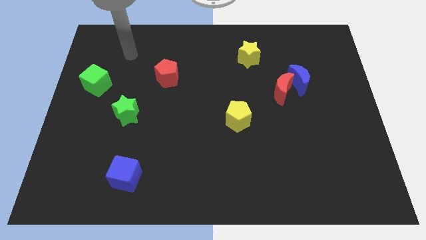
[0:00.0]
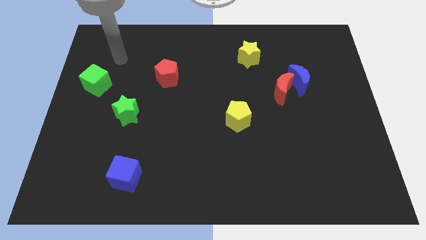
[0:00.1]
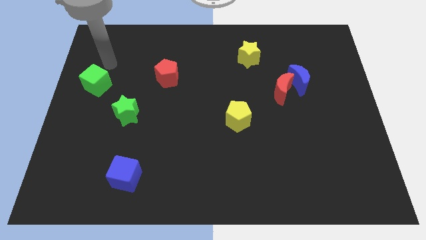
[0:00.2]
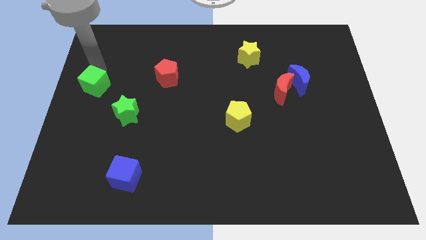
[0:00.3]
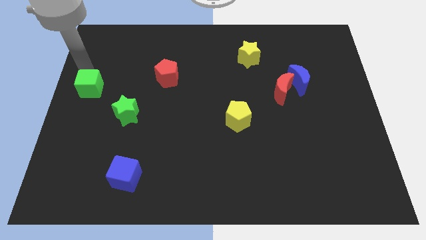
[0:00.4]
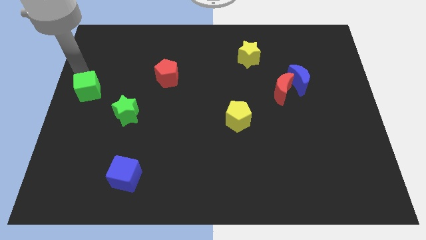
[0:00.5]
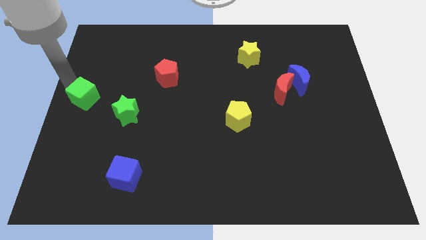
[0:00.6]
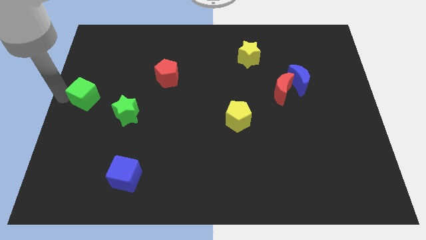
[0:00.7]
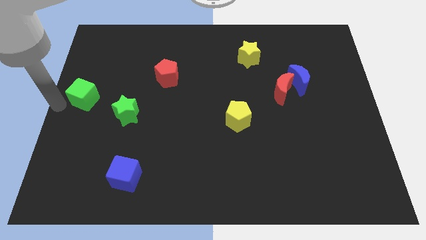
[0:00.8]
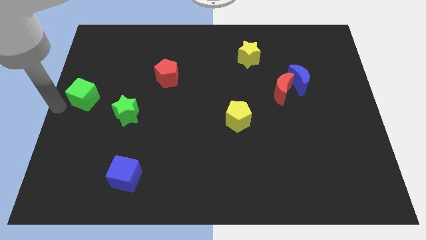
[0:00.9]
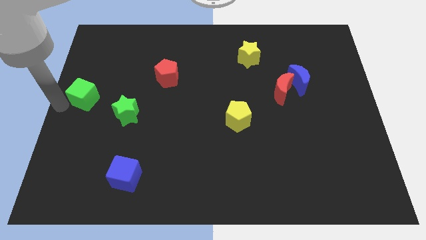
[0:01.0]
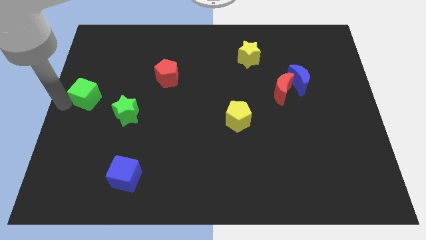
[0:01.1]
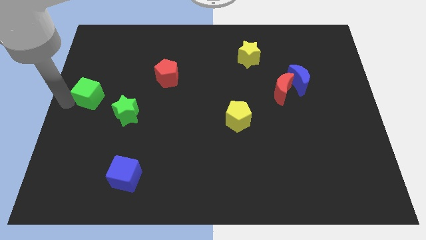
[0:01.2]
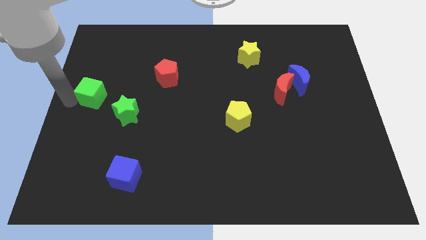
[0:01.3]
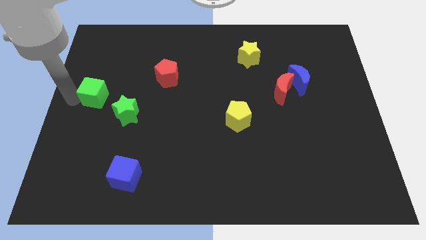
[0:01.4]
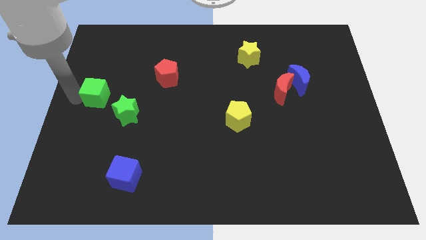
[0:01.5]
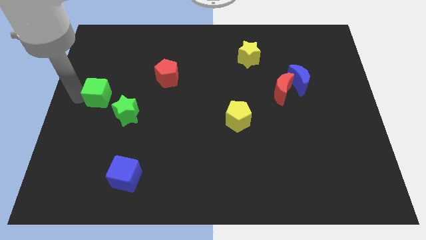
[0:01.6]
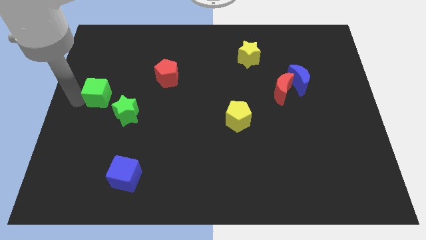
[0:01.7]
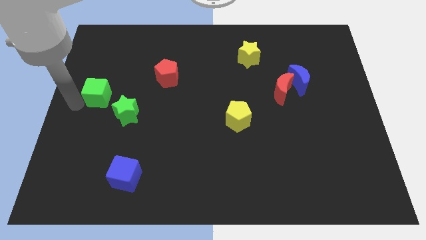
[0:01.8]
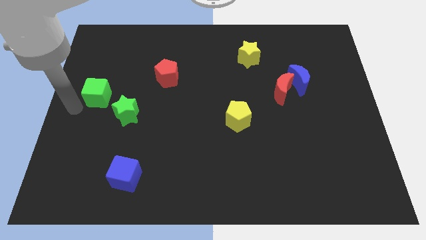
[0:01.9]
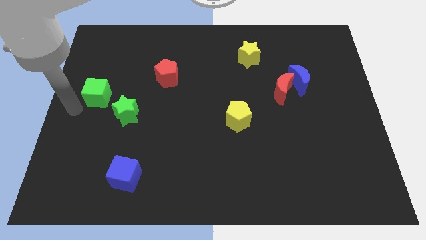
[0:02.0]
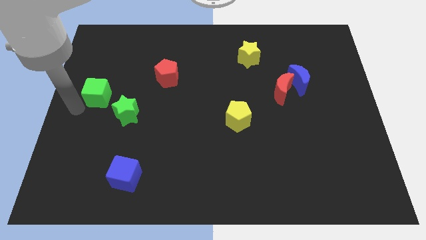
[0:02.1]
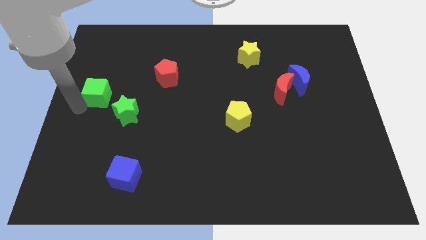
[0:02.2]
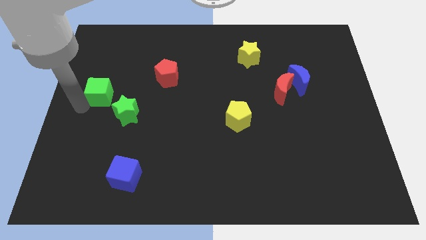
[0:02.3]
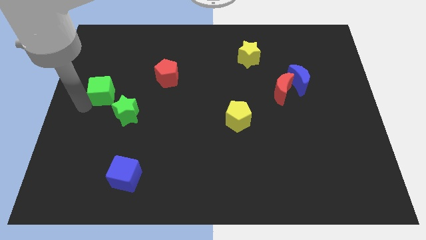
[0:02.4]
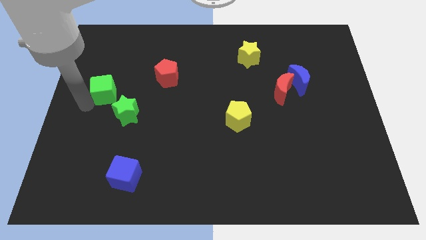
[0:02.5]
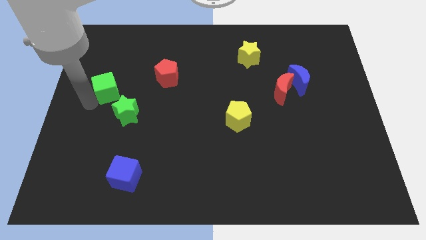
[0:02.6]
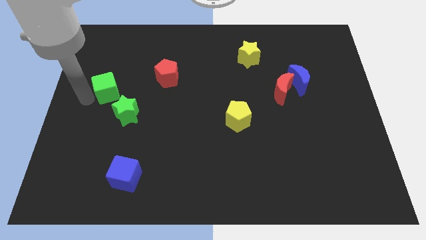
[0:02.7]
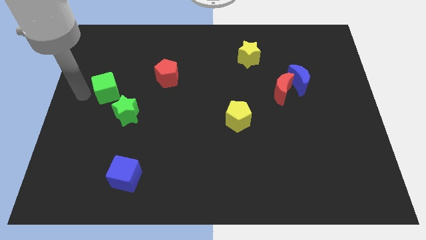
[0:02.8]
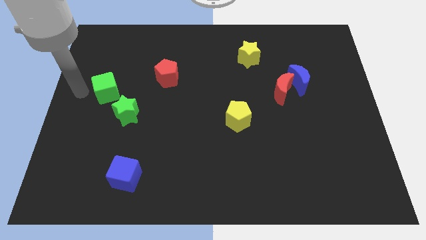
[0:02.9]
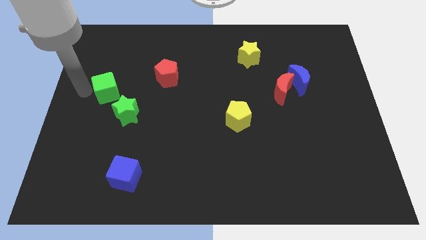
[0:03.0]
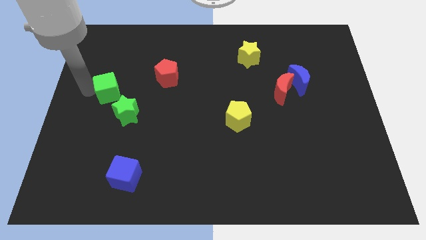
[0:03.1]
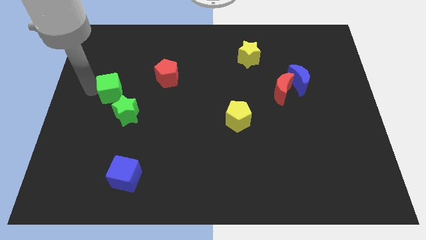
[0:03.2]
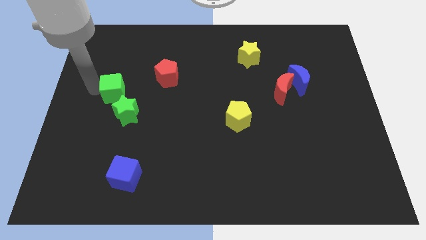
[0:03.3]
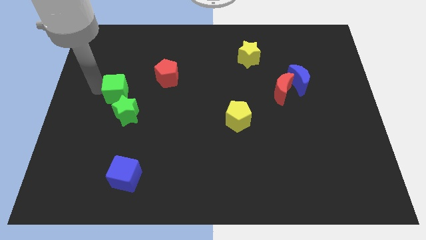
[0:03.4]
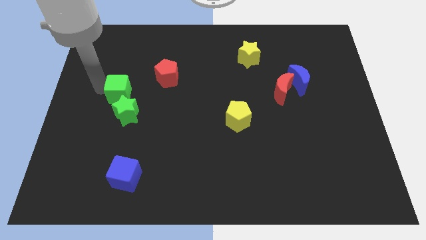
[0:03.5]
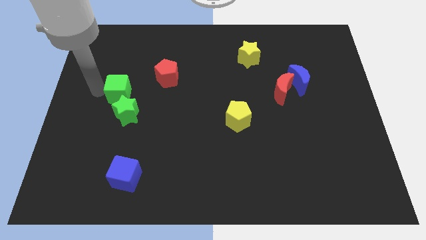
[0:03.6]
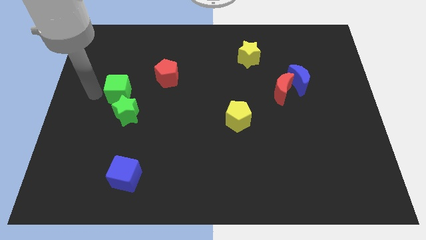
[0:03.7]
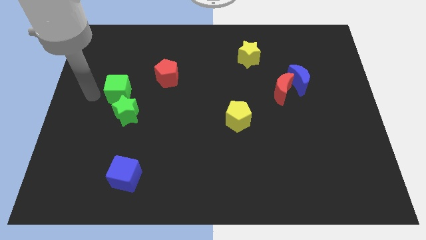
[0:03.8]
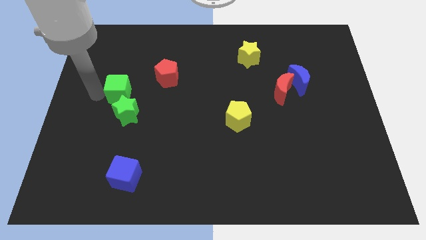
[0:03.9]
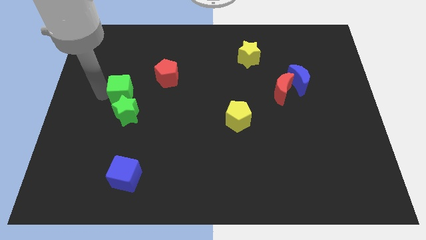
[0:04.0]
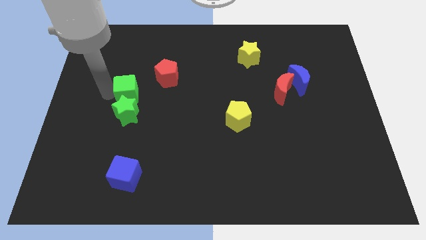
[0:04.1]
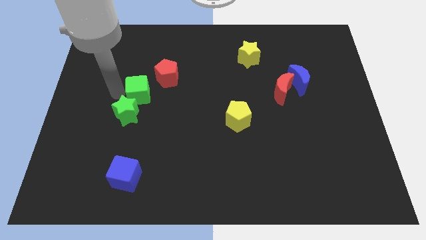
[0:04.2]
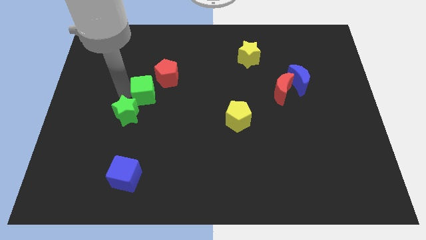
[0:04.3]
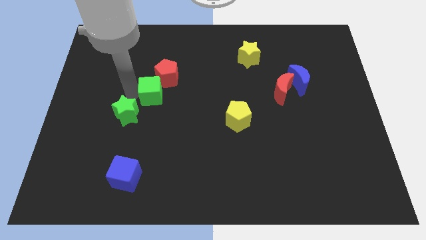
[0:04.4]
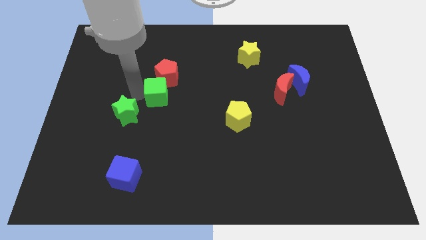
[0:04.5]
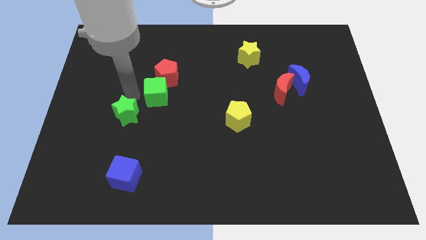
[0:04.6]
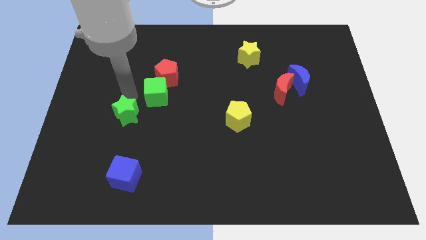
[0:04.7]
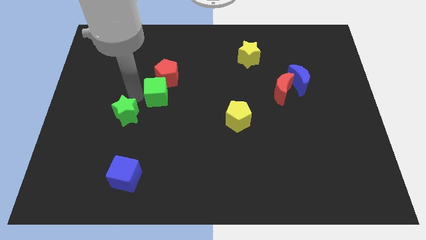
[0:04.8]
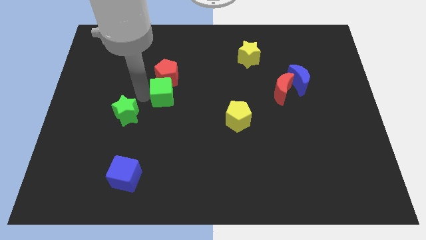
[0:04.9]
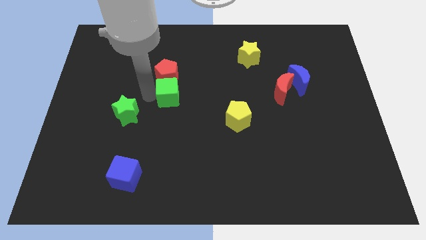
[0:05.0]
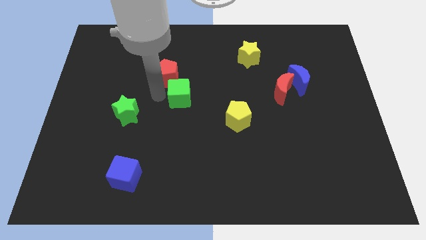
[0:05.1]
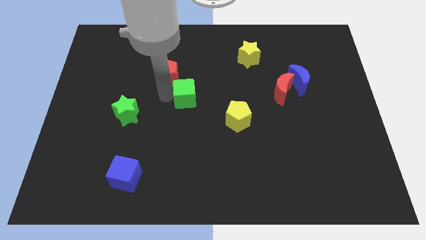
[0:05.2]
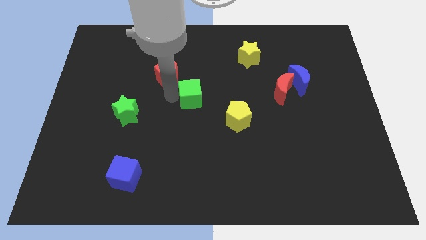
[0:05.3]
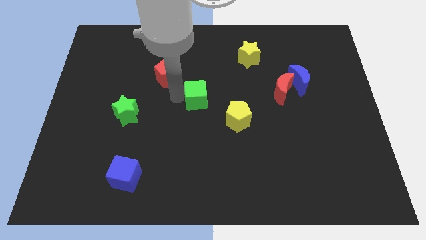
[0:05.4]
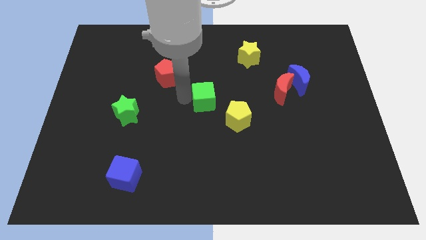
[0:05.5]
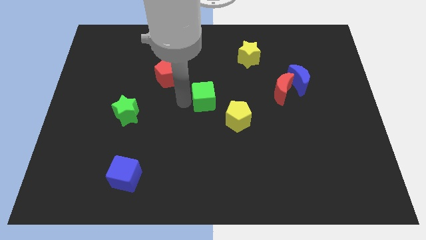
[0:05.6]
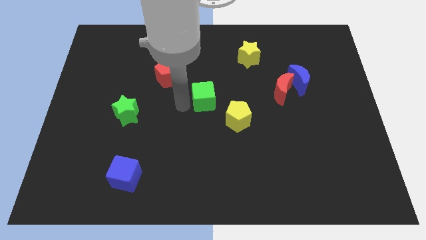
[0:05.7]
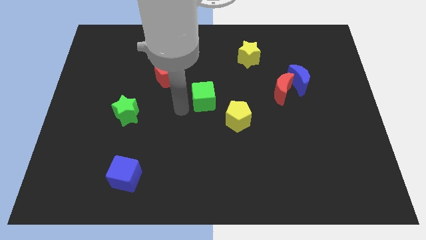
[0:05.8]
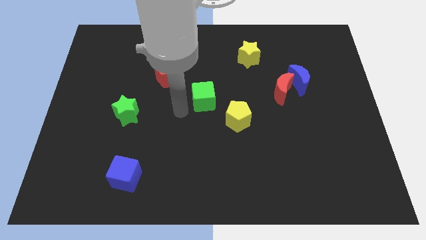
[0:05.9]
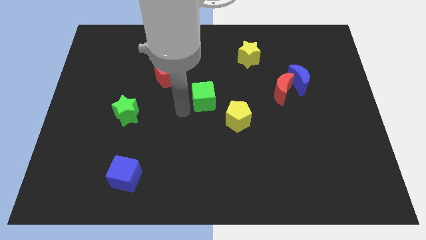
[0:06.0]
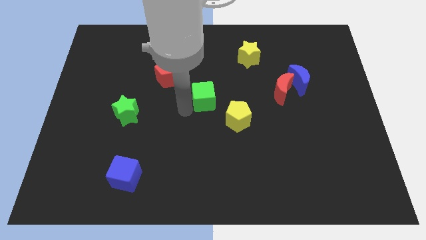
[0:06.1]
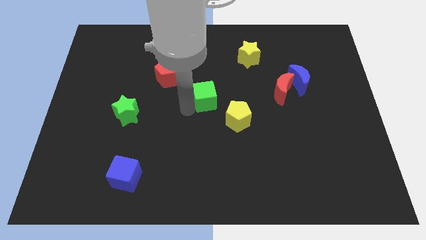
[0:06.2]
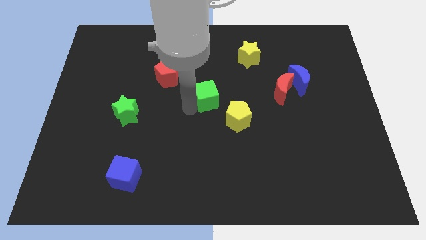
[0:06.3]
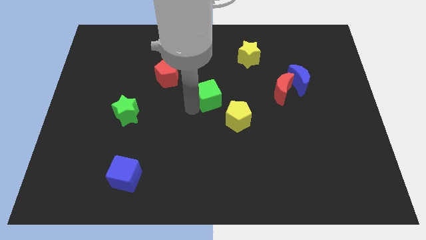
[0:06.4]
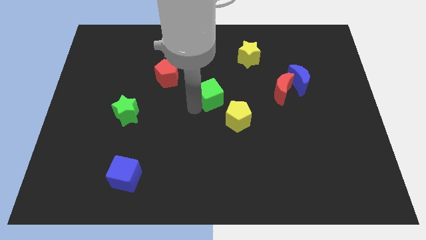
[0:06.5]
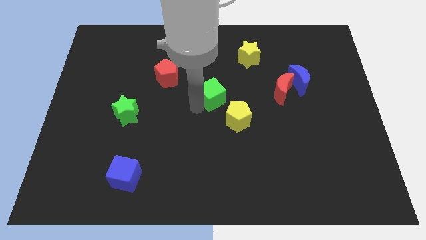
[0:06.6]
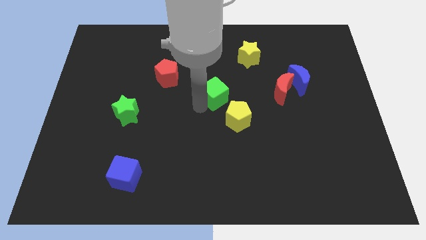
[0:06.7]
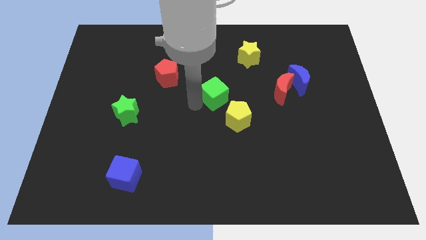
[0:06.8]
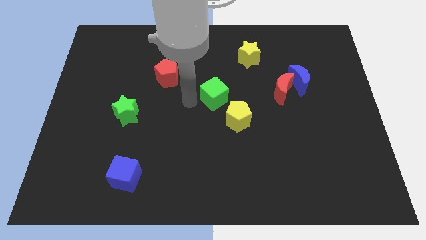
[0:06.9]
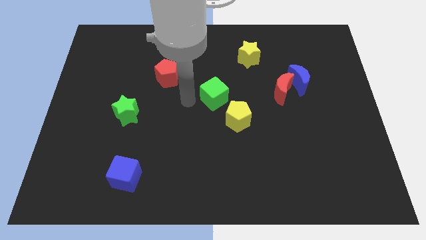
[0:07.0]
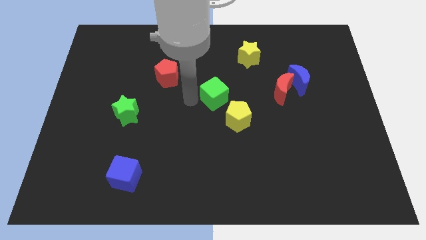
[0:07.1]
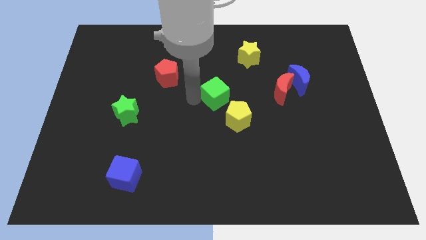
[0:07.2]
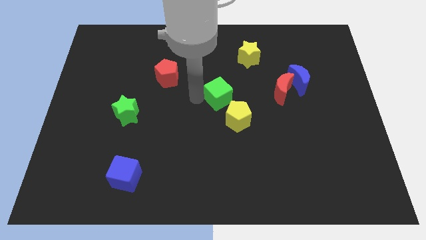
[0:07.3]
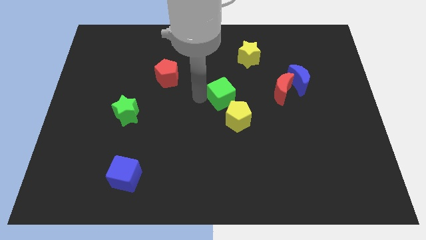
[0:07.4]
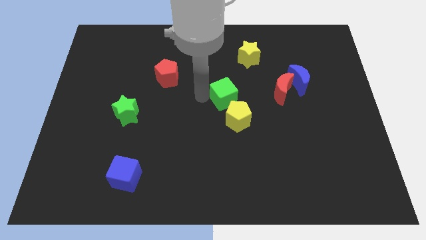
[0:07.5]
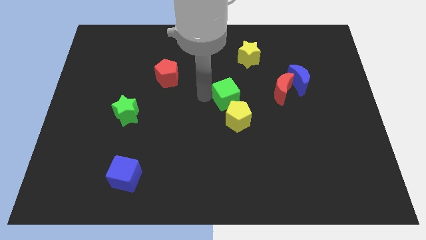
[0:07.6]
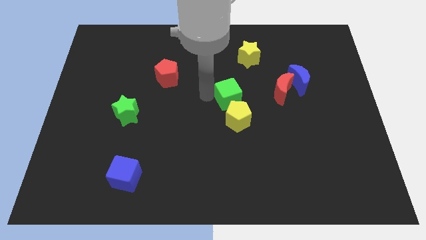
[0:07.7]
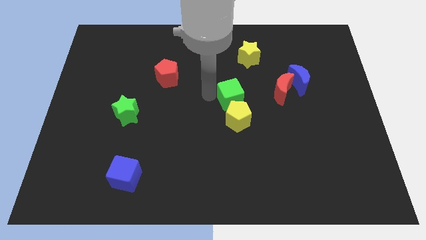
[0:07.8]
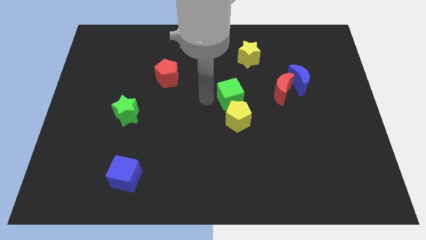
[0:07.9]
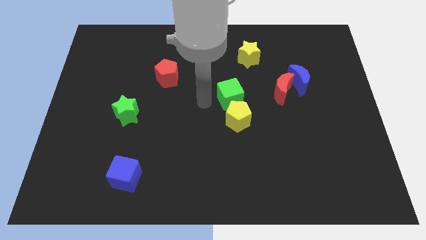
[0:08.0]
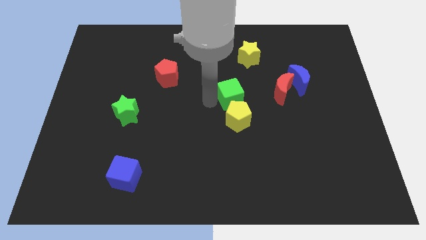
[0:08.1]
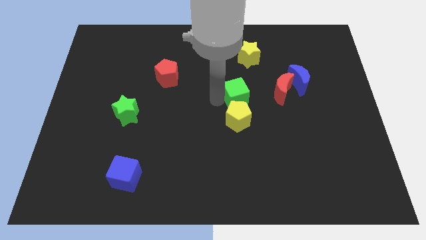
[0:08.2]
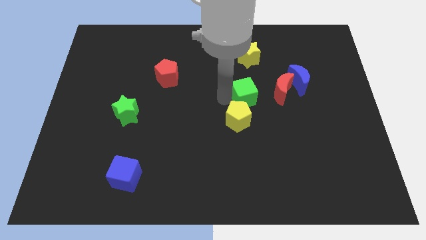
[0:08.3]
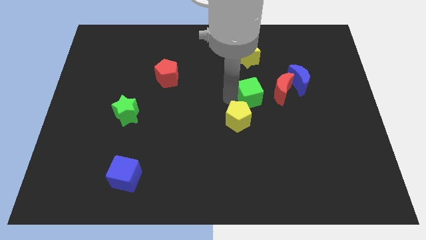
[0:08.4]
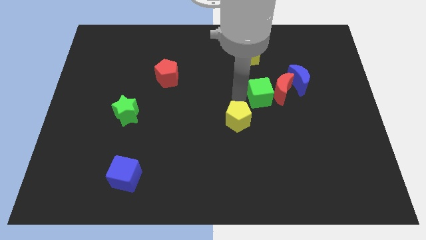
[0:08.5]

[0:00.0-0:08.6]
push the green cube close to the red moon
